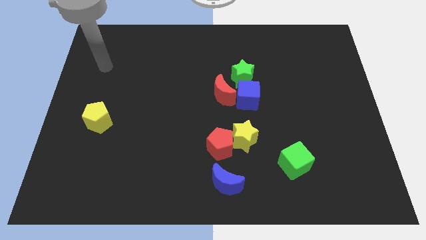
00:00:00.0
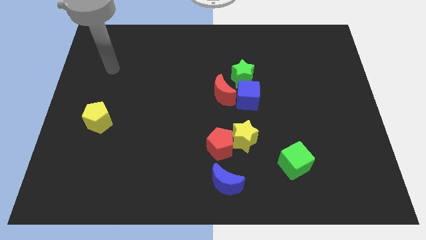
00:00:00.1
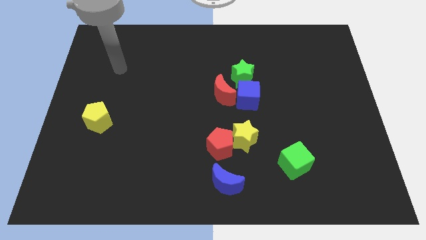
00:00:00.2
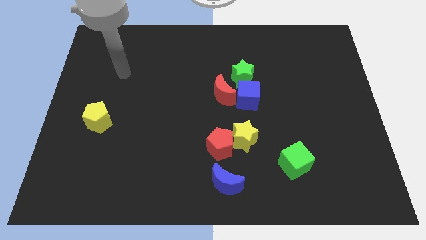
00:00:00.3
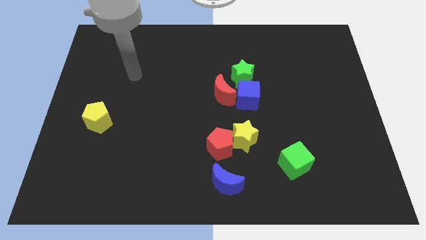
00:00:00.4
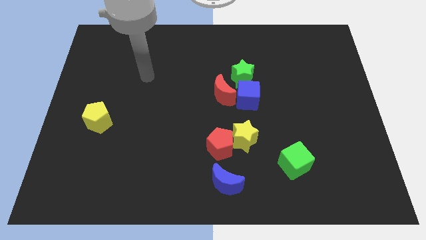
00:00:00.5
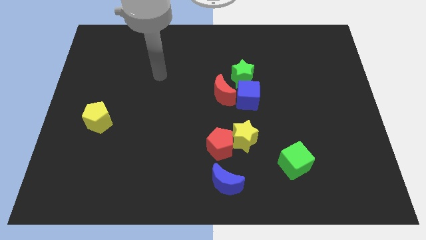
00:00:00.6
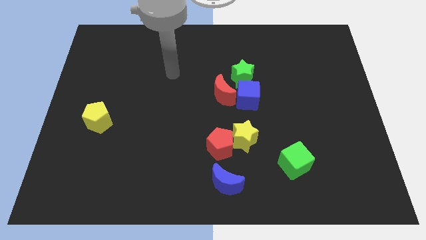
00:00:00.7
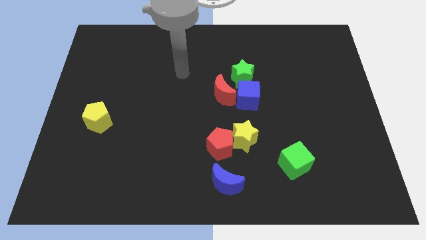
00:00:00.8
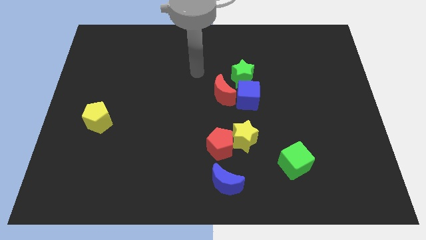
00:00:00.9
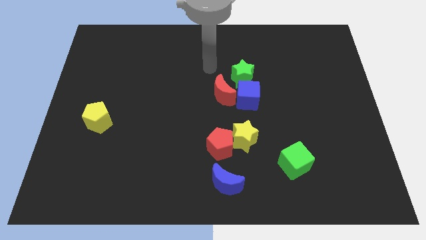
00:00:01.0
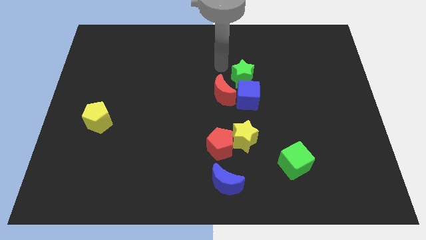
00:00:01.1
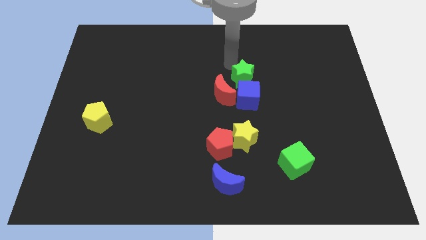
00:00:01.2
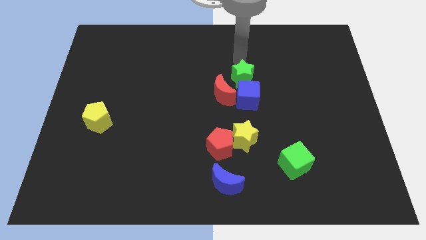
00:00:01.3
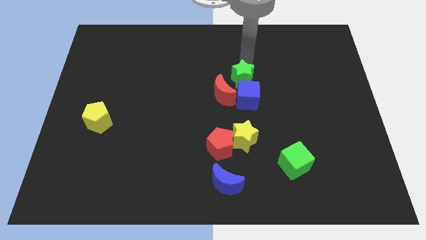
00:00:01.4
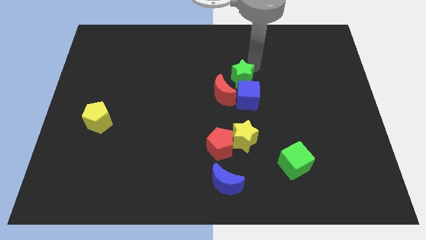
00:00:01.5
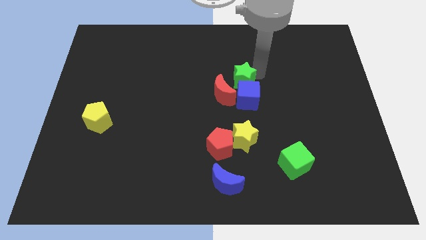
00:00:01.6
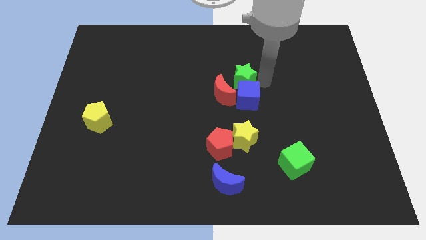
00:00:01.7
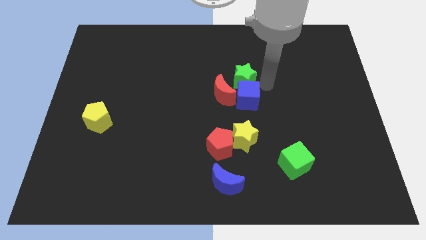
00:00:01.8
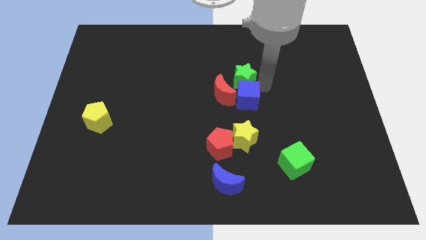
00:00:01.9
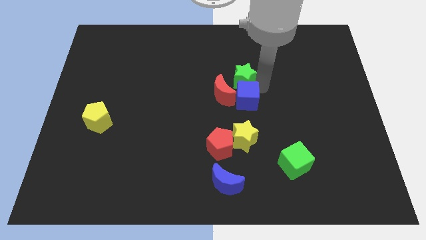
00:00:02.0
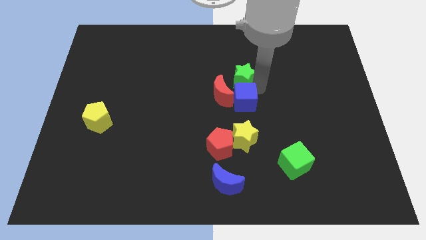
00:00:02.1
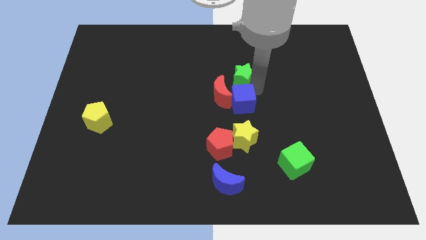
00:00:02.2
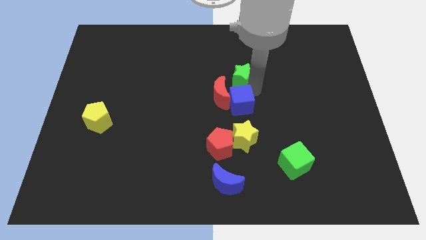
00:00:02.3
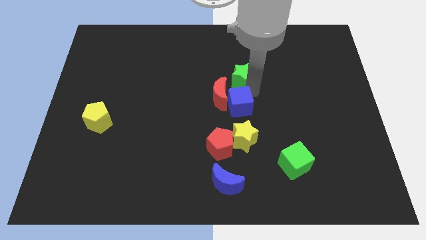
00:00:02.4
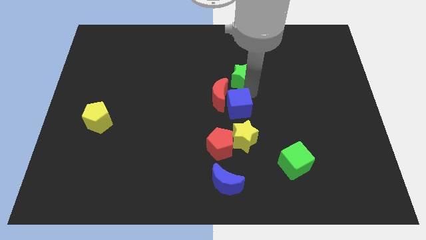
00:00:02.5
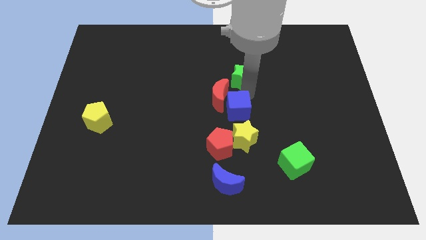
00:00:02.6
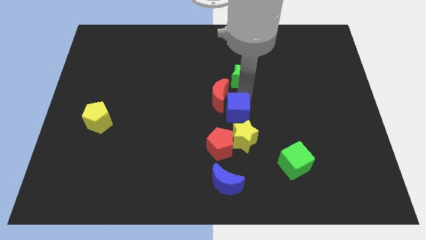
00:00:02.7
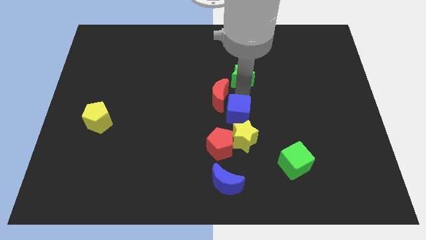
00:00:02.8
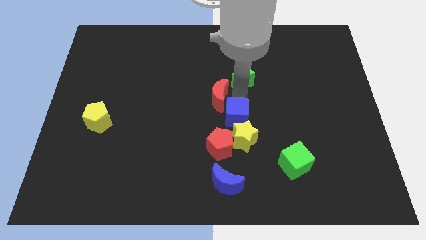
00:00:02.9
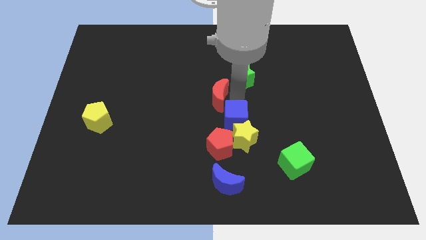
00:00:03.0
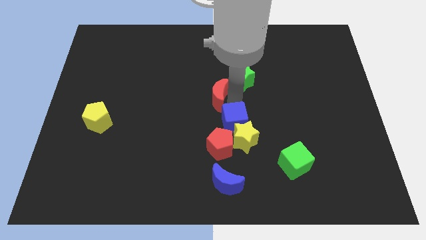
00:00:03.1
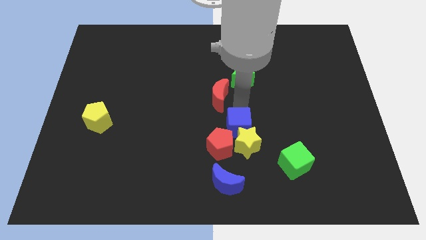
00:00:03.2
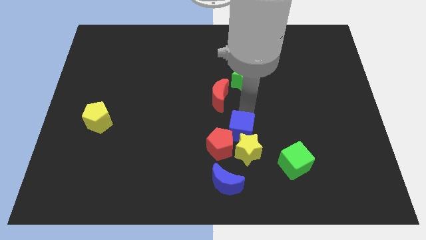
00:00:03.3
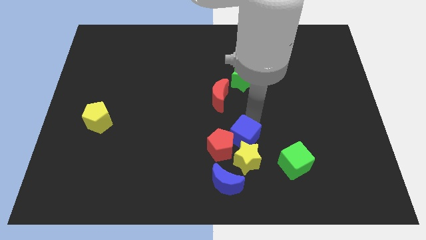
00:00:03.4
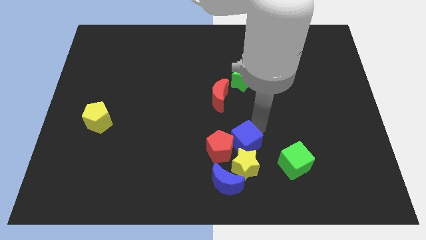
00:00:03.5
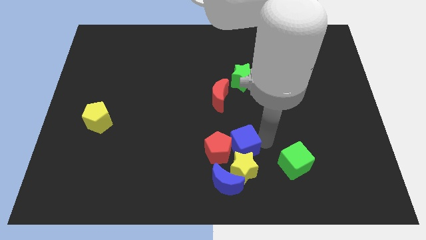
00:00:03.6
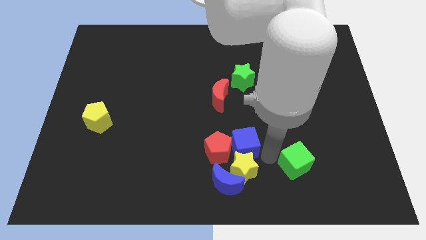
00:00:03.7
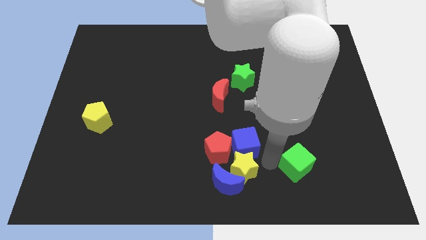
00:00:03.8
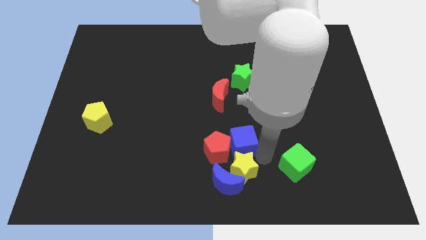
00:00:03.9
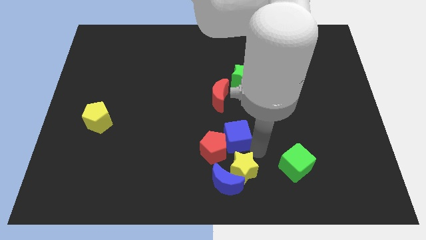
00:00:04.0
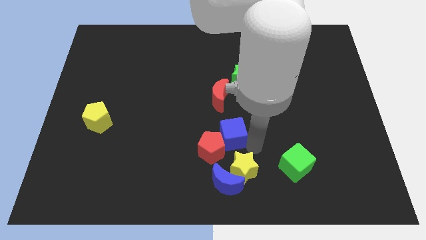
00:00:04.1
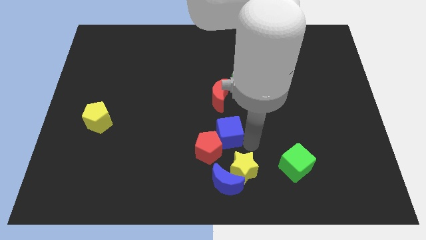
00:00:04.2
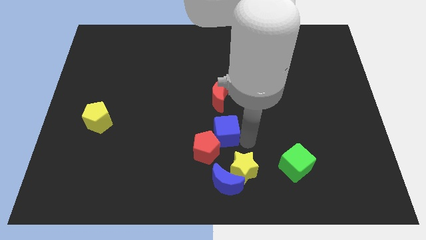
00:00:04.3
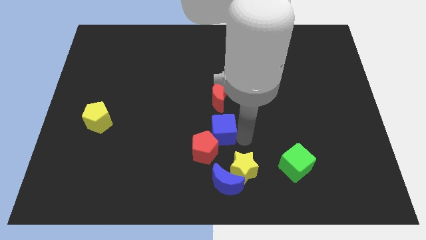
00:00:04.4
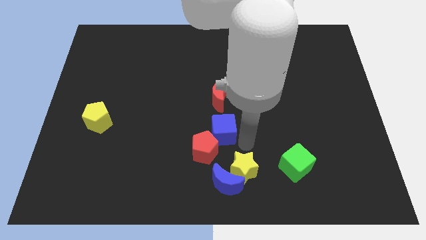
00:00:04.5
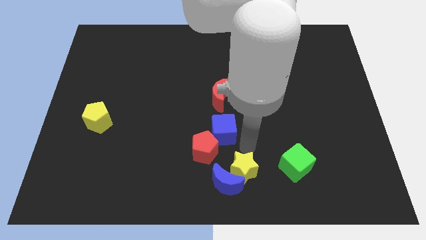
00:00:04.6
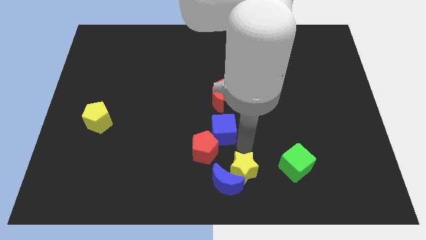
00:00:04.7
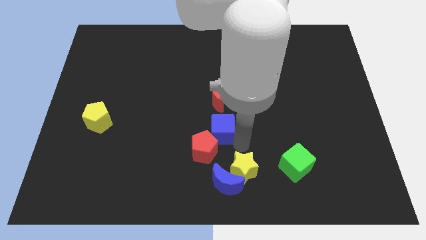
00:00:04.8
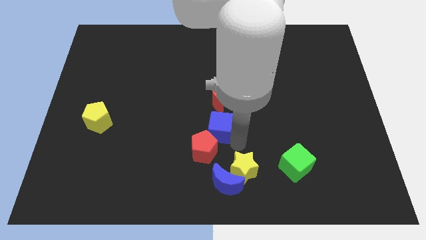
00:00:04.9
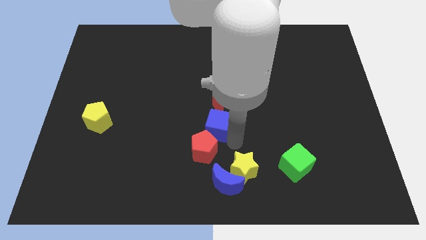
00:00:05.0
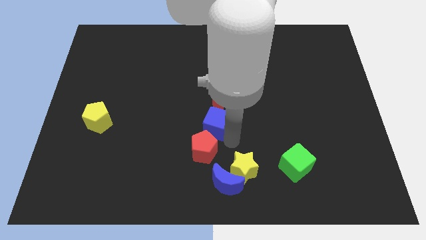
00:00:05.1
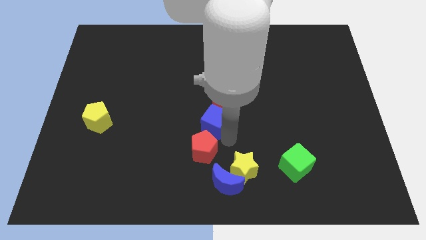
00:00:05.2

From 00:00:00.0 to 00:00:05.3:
slide the blue cube diagonally down and to the left of the red moon

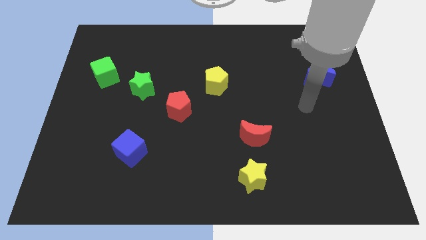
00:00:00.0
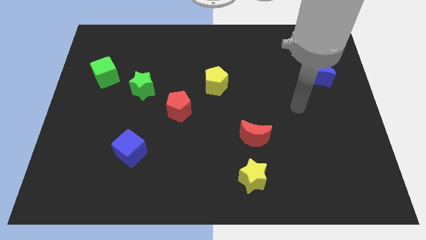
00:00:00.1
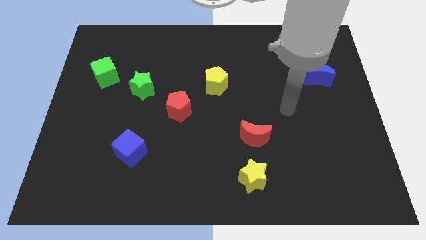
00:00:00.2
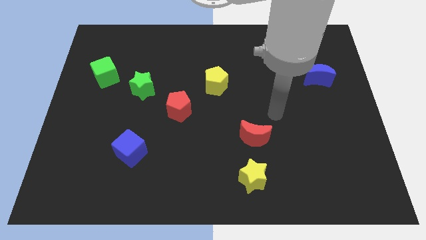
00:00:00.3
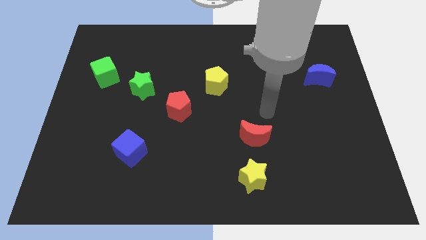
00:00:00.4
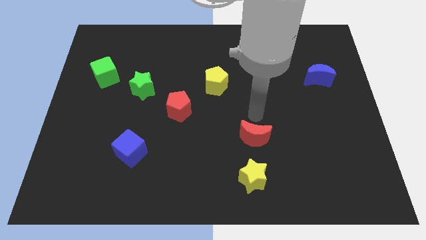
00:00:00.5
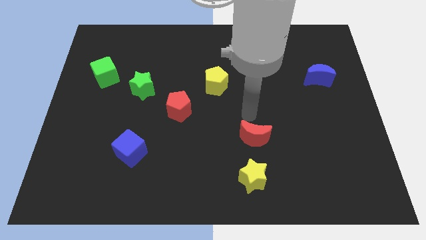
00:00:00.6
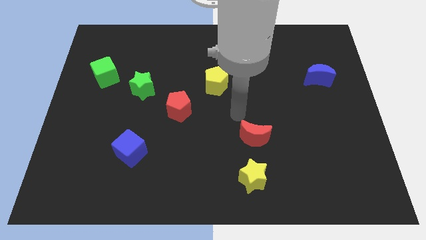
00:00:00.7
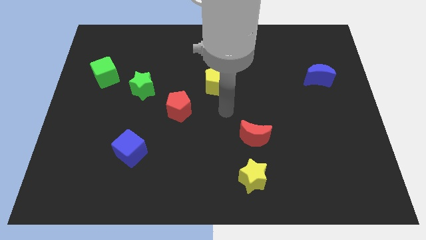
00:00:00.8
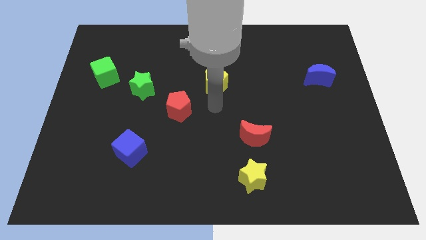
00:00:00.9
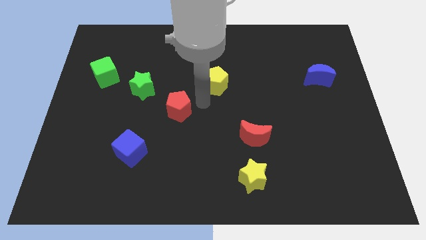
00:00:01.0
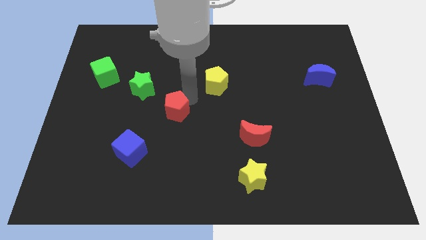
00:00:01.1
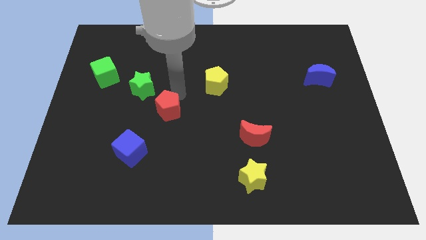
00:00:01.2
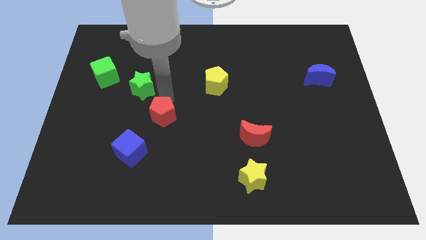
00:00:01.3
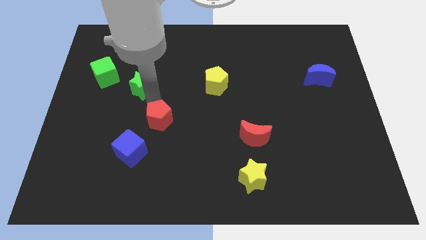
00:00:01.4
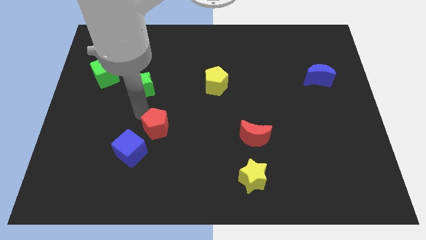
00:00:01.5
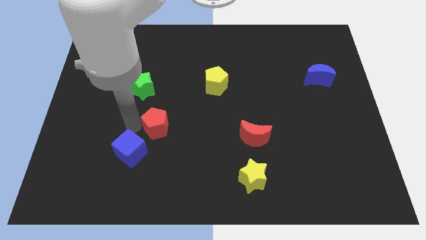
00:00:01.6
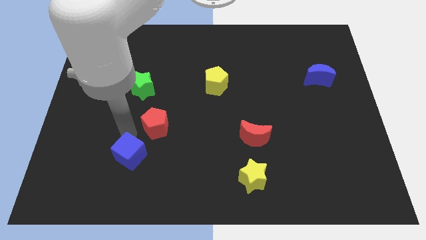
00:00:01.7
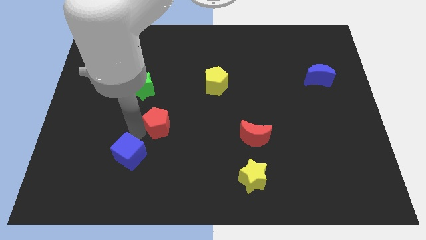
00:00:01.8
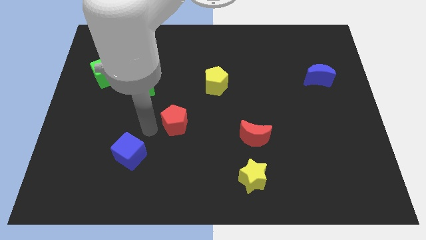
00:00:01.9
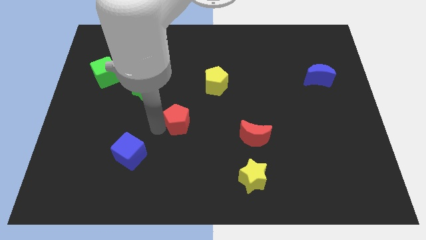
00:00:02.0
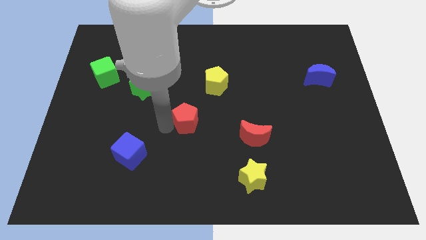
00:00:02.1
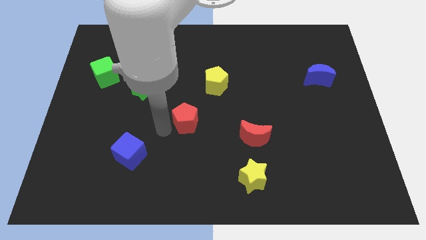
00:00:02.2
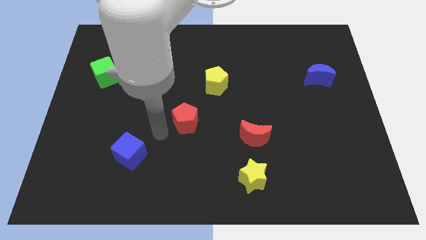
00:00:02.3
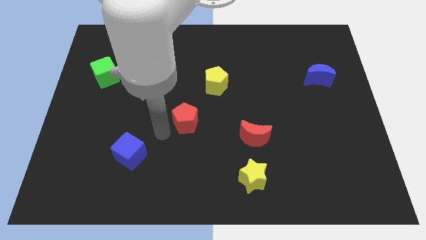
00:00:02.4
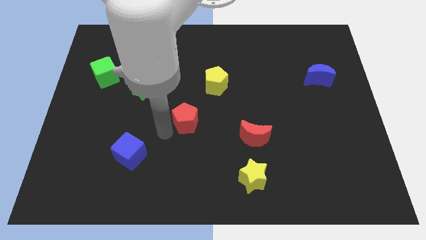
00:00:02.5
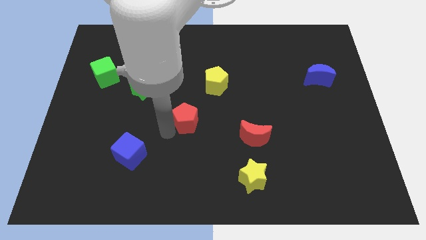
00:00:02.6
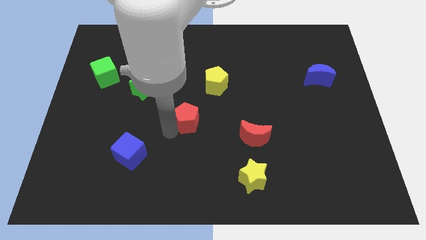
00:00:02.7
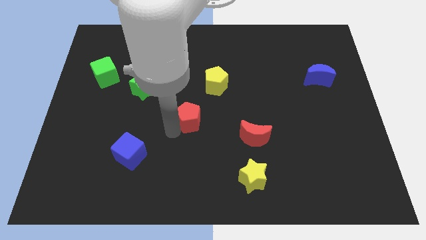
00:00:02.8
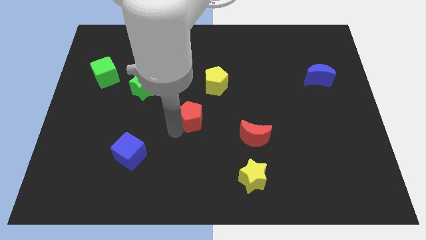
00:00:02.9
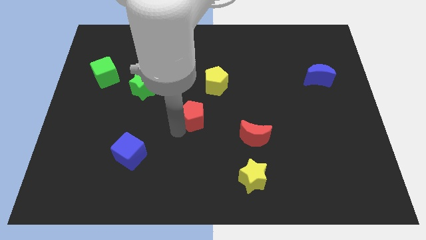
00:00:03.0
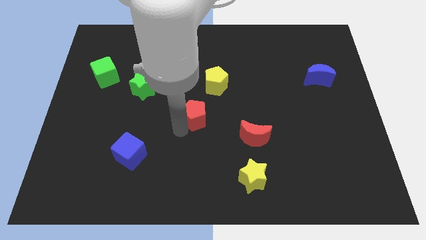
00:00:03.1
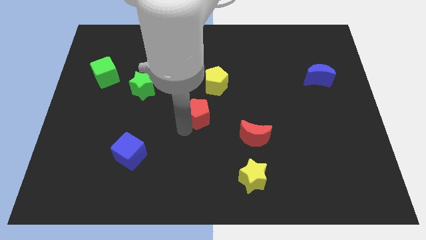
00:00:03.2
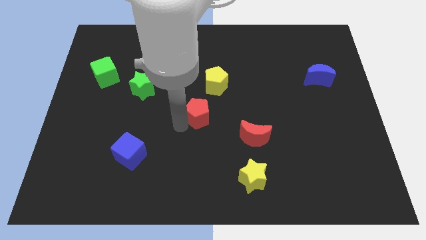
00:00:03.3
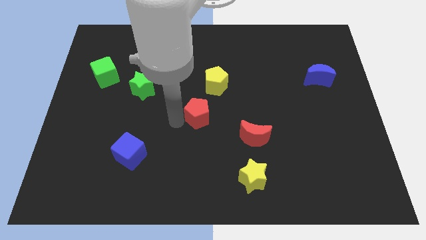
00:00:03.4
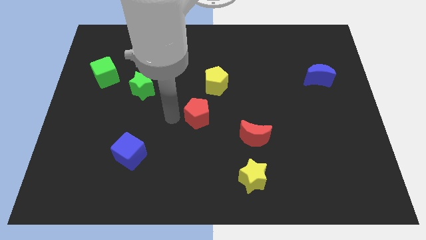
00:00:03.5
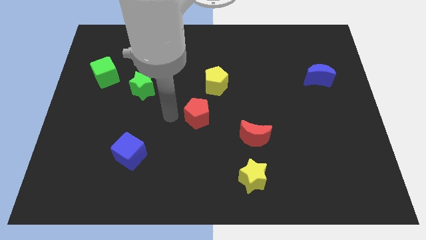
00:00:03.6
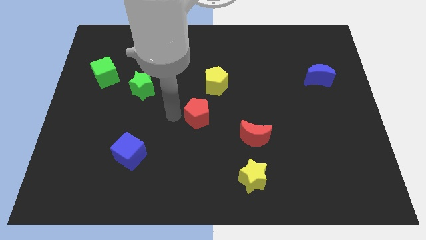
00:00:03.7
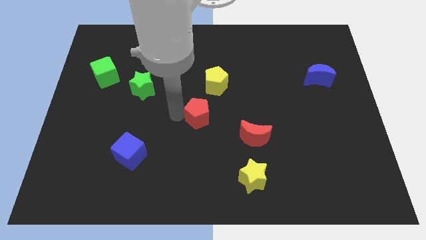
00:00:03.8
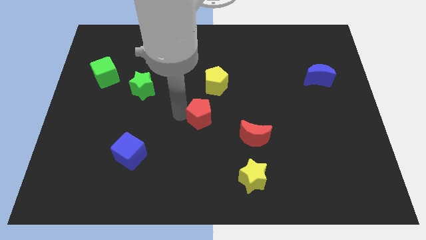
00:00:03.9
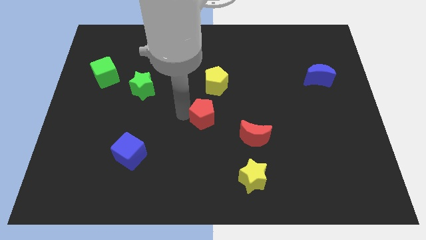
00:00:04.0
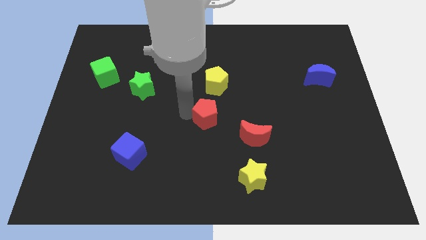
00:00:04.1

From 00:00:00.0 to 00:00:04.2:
put the red pentagon to the top left side of the red moon
